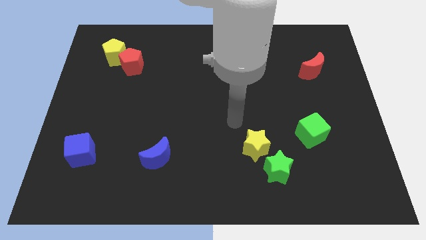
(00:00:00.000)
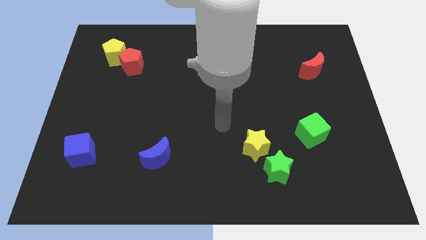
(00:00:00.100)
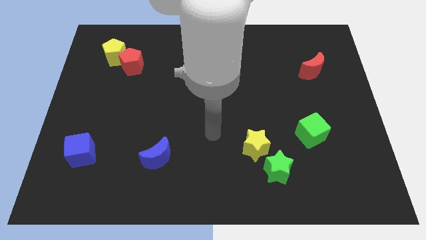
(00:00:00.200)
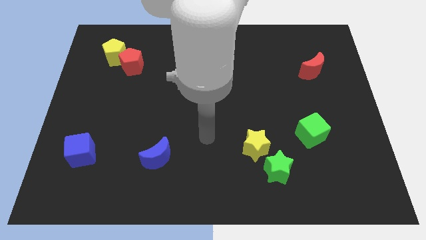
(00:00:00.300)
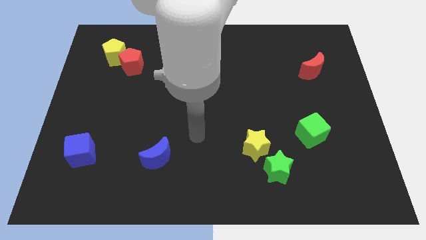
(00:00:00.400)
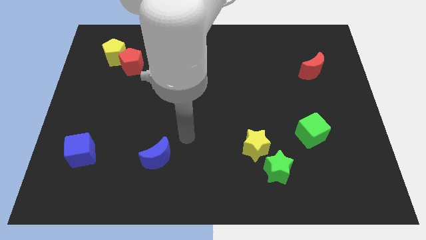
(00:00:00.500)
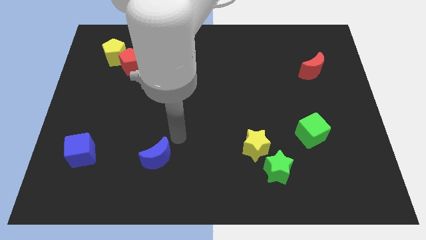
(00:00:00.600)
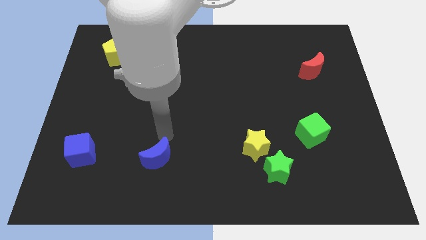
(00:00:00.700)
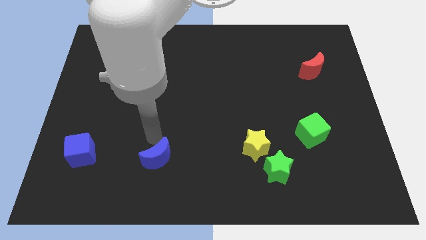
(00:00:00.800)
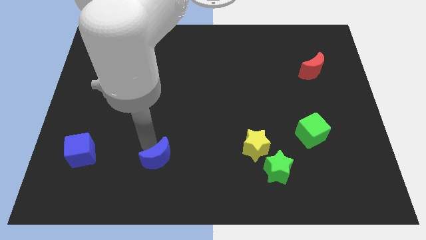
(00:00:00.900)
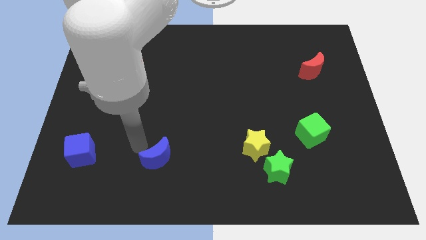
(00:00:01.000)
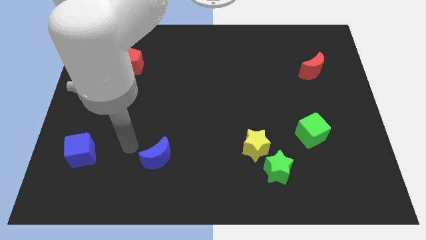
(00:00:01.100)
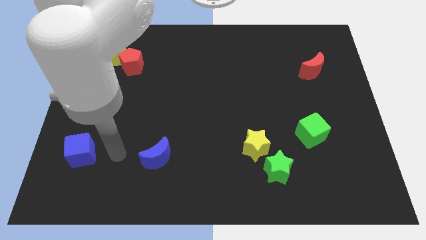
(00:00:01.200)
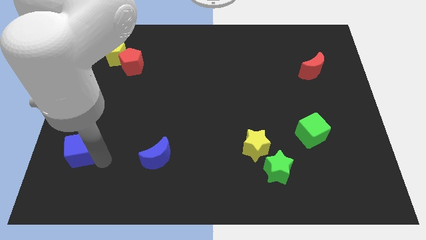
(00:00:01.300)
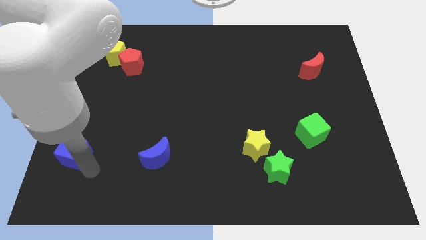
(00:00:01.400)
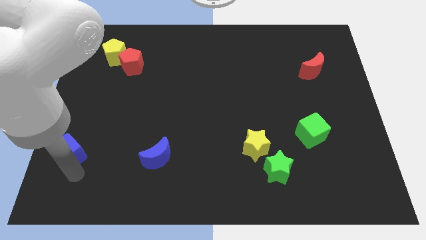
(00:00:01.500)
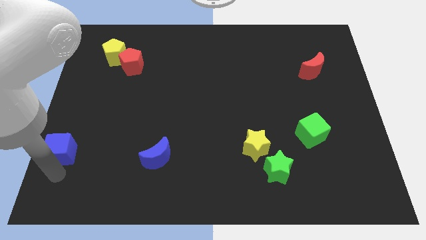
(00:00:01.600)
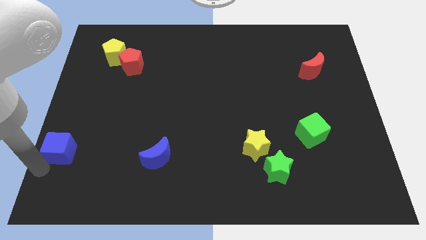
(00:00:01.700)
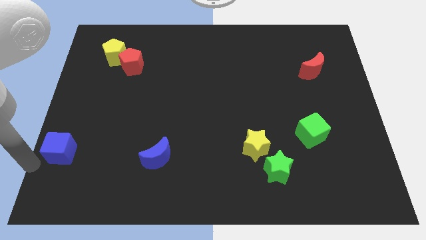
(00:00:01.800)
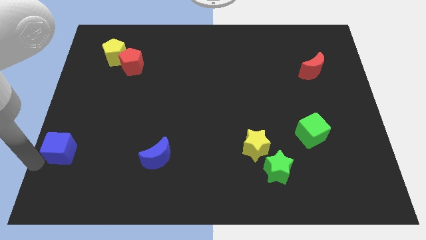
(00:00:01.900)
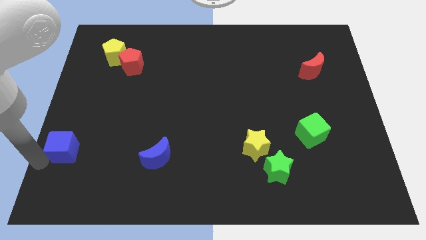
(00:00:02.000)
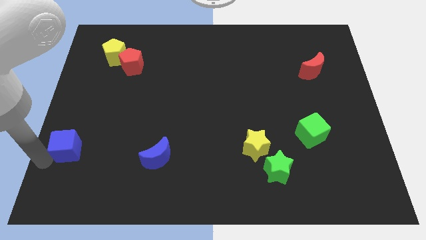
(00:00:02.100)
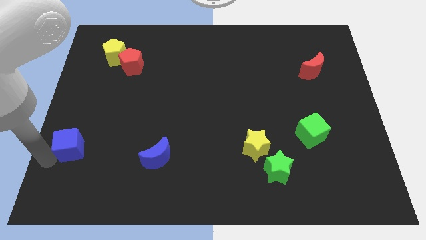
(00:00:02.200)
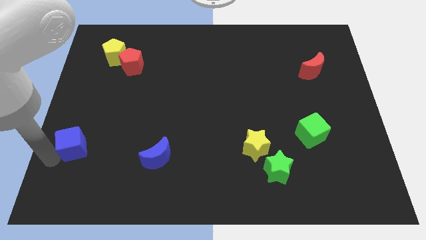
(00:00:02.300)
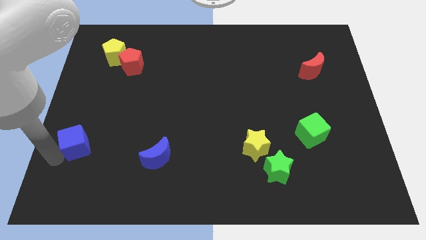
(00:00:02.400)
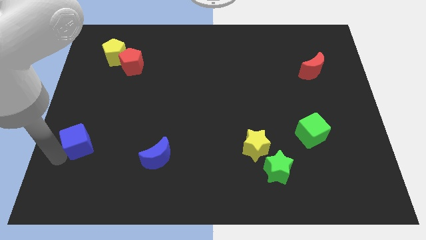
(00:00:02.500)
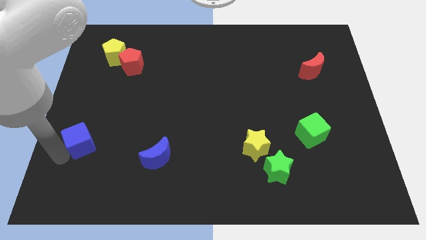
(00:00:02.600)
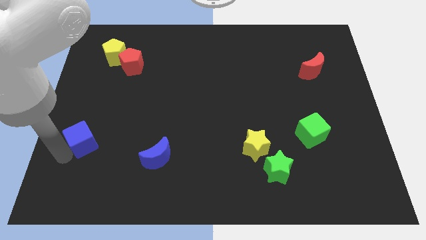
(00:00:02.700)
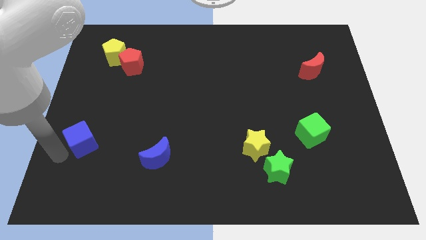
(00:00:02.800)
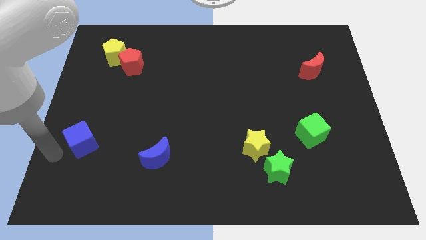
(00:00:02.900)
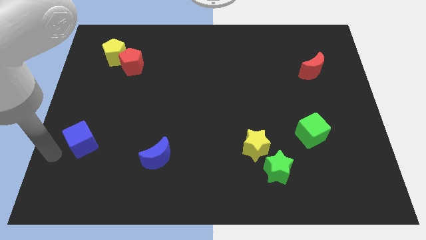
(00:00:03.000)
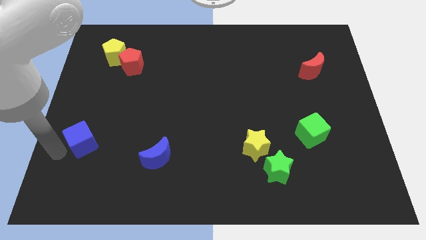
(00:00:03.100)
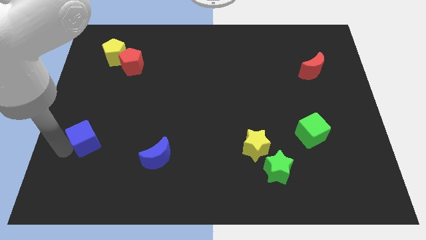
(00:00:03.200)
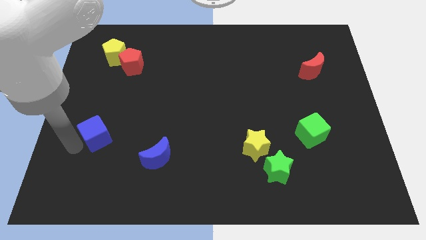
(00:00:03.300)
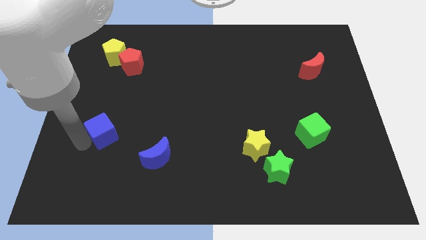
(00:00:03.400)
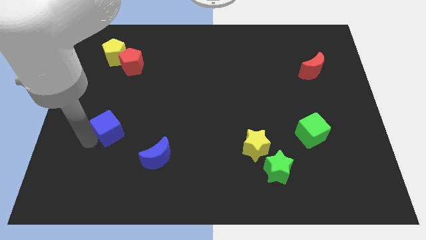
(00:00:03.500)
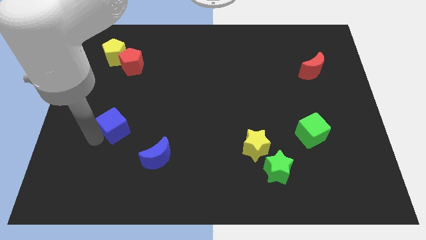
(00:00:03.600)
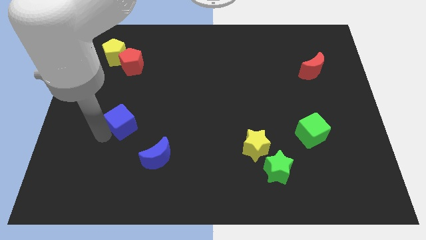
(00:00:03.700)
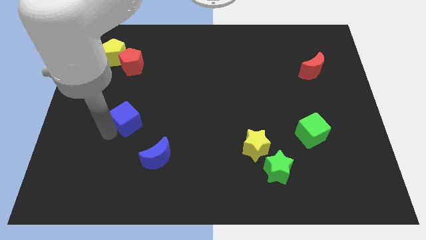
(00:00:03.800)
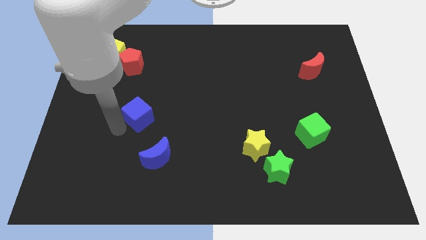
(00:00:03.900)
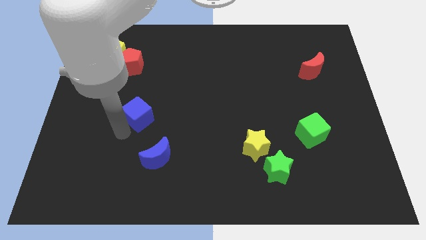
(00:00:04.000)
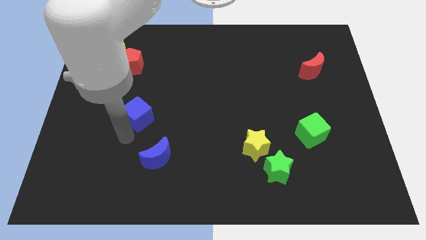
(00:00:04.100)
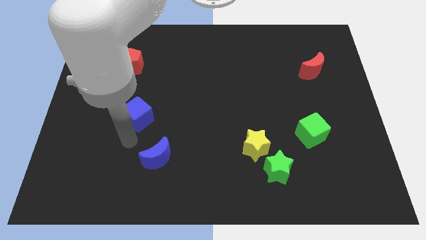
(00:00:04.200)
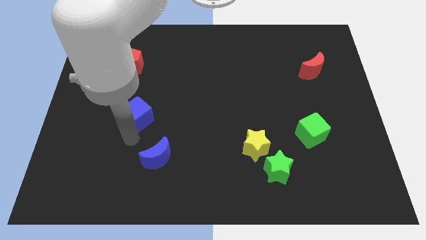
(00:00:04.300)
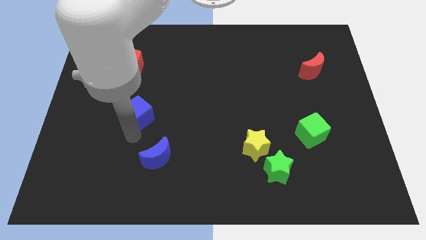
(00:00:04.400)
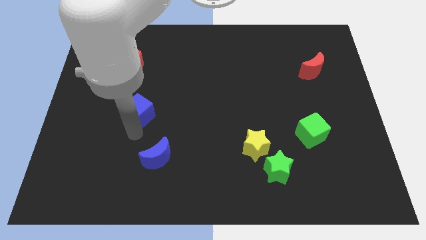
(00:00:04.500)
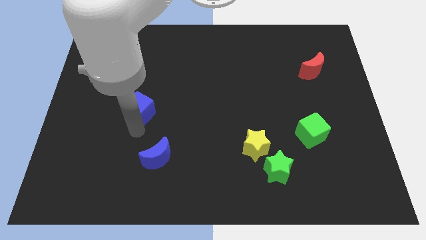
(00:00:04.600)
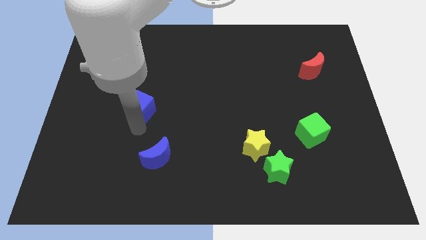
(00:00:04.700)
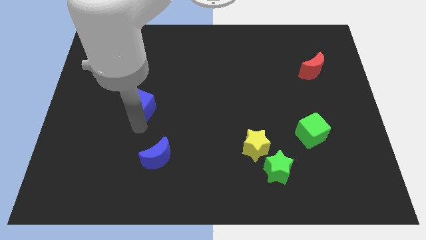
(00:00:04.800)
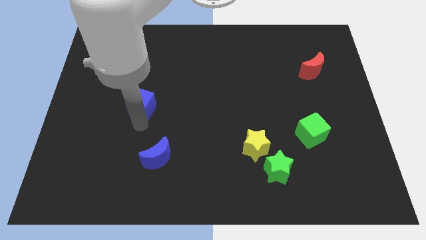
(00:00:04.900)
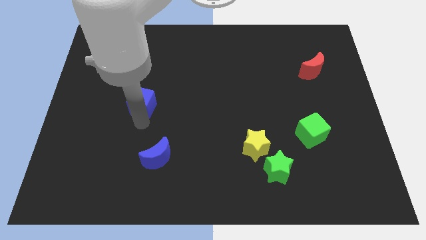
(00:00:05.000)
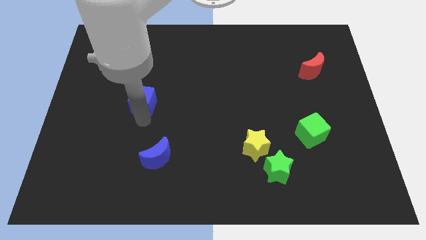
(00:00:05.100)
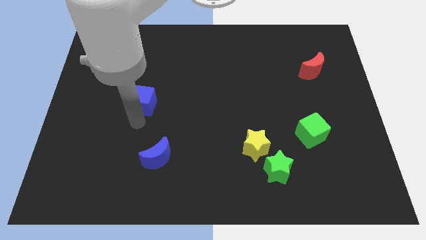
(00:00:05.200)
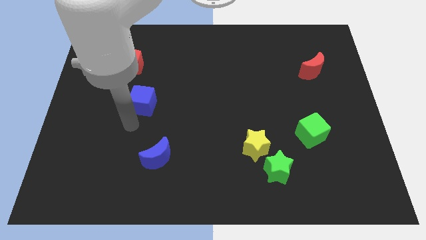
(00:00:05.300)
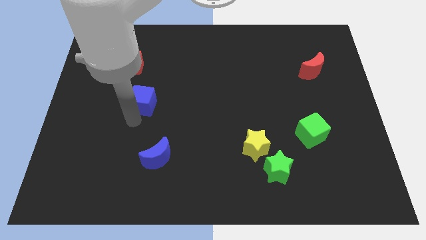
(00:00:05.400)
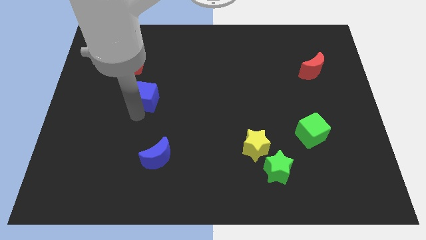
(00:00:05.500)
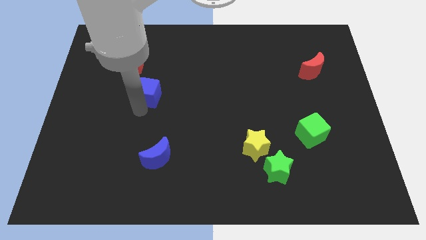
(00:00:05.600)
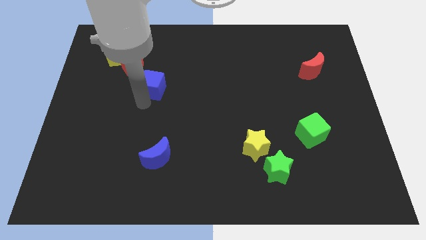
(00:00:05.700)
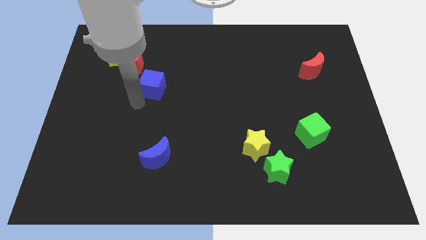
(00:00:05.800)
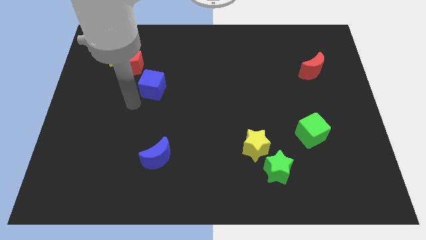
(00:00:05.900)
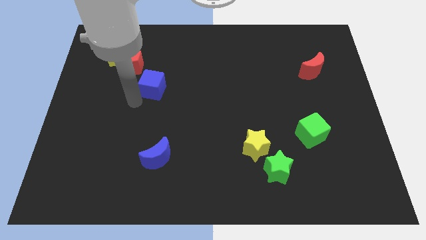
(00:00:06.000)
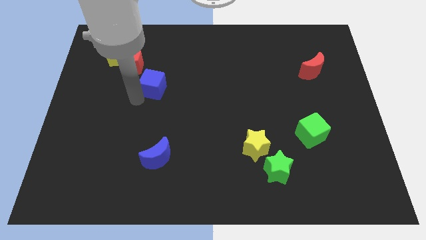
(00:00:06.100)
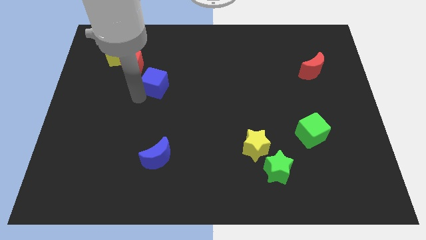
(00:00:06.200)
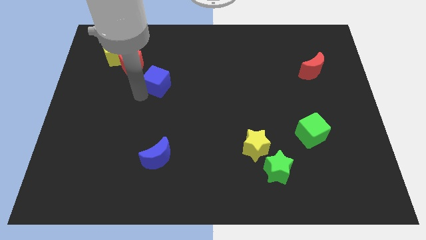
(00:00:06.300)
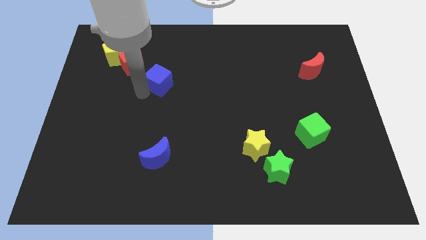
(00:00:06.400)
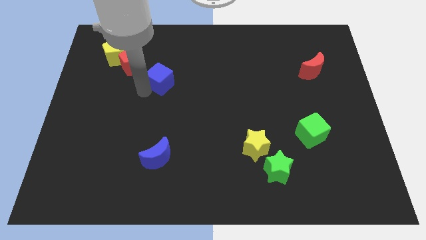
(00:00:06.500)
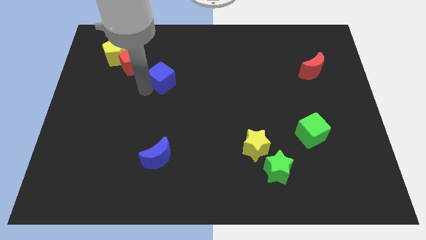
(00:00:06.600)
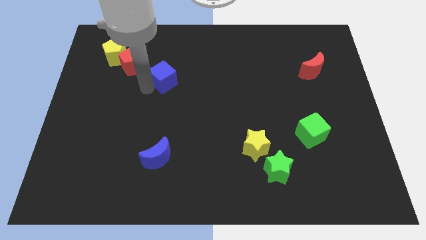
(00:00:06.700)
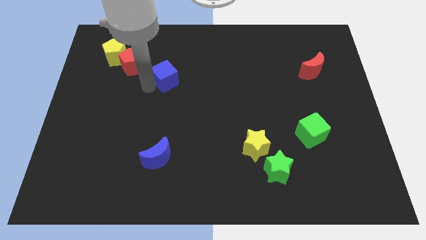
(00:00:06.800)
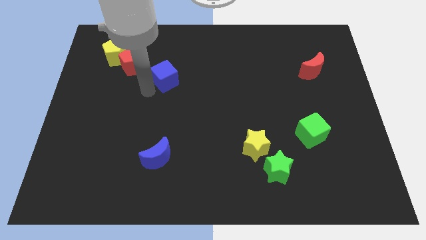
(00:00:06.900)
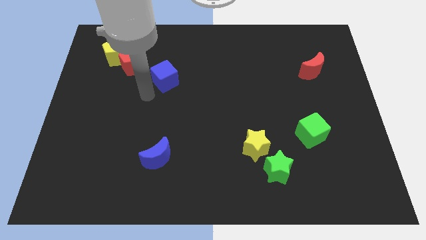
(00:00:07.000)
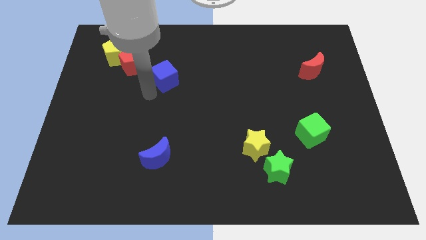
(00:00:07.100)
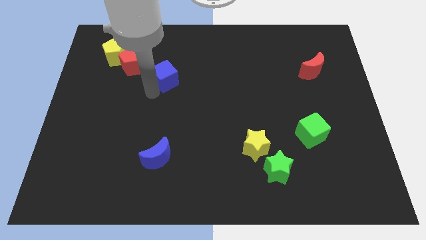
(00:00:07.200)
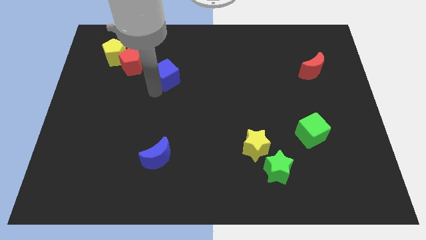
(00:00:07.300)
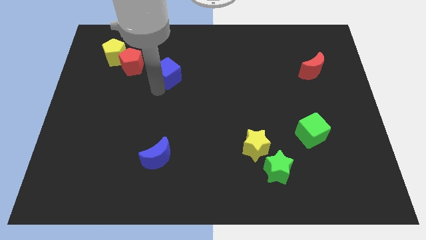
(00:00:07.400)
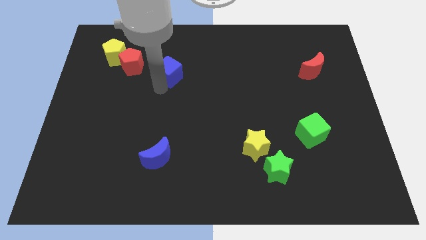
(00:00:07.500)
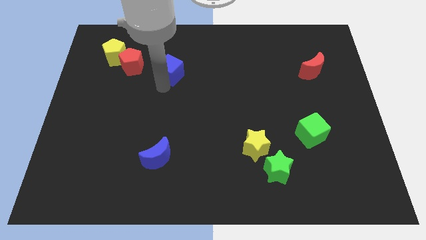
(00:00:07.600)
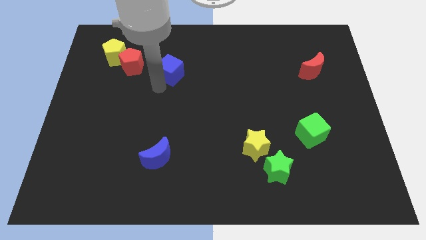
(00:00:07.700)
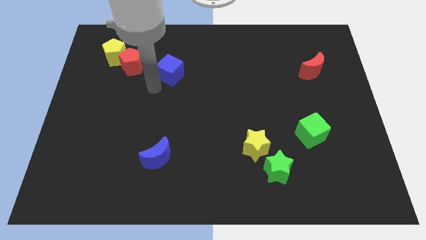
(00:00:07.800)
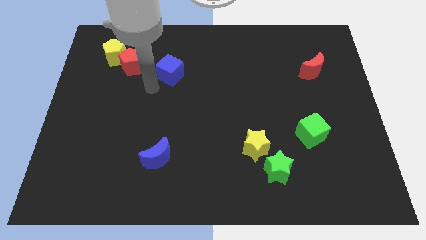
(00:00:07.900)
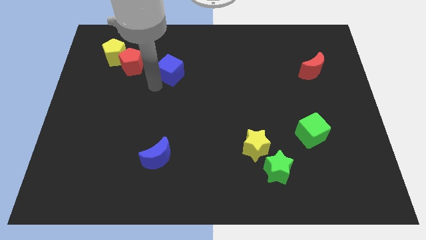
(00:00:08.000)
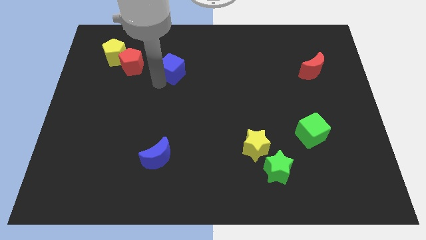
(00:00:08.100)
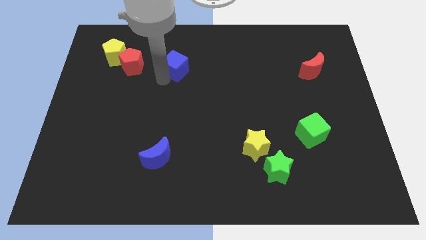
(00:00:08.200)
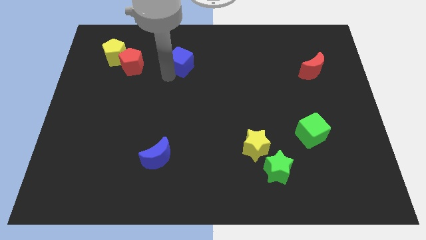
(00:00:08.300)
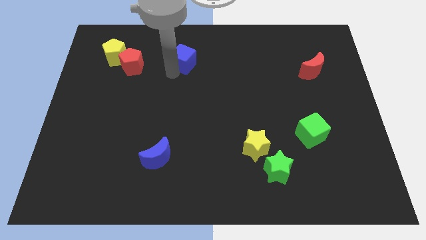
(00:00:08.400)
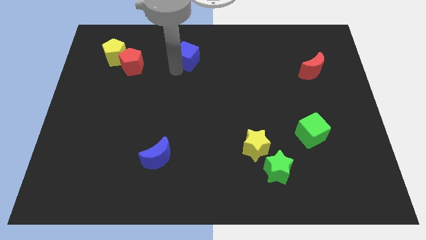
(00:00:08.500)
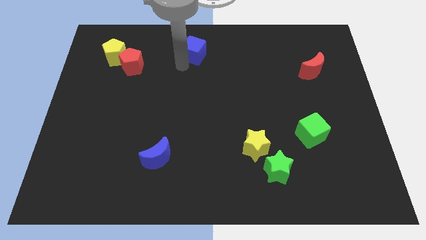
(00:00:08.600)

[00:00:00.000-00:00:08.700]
slide the blue cube to the top
